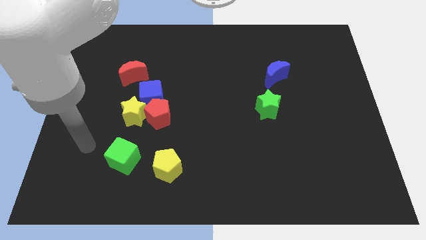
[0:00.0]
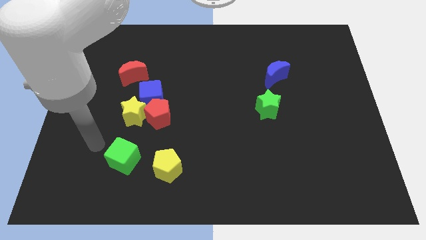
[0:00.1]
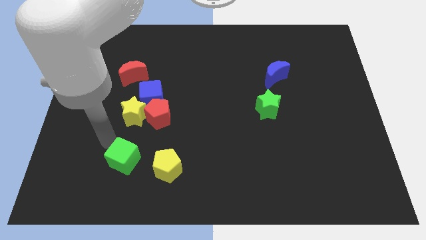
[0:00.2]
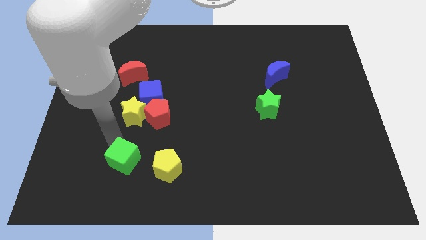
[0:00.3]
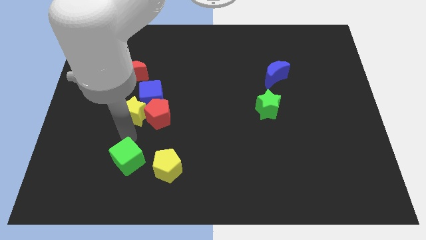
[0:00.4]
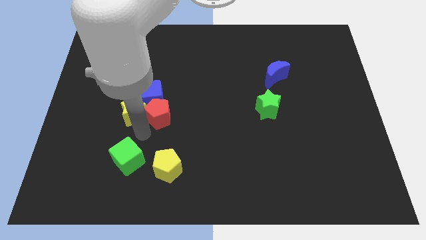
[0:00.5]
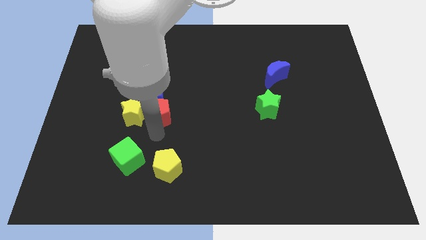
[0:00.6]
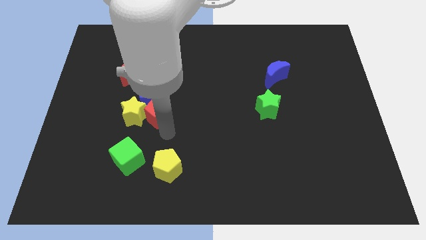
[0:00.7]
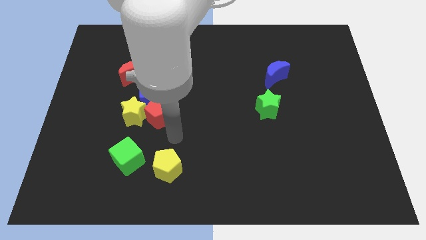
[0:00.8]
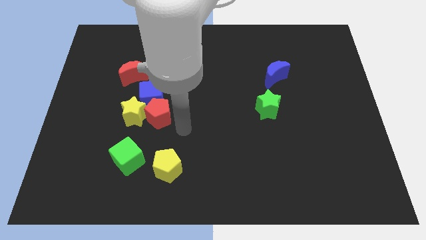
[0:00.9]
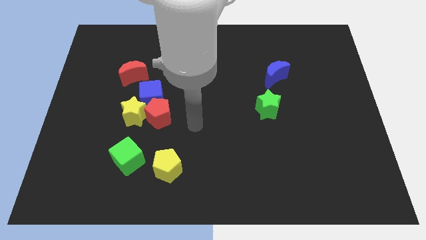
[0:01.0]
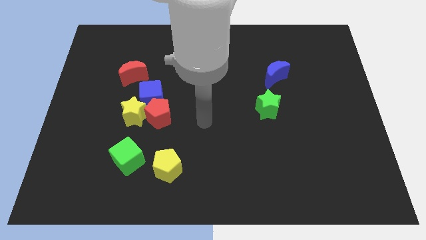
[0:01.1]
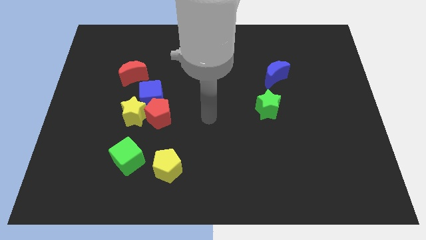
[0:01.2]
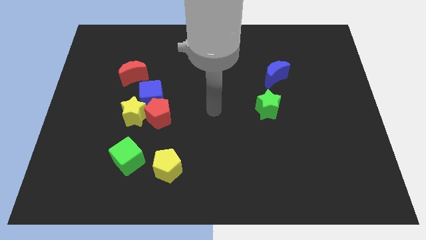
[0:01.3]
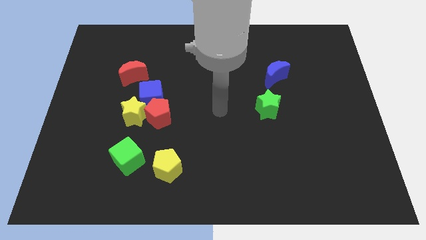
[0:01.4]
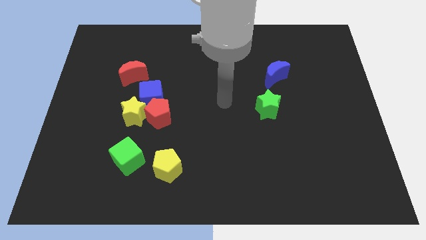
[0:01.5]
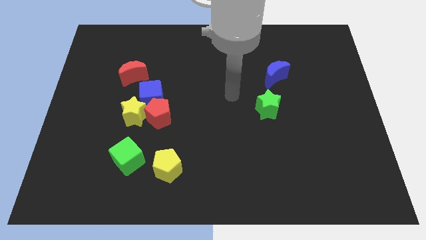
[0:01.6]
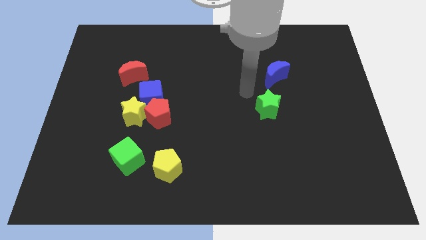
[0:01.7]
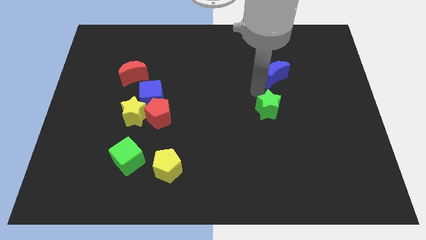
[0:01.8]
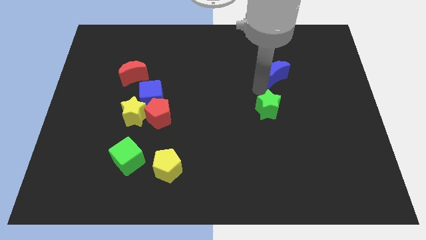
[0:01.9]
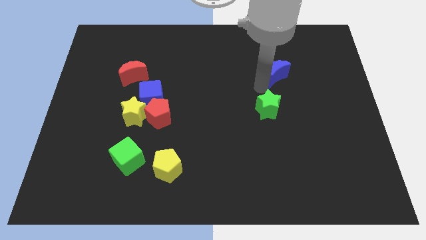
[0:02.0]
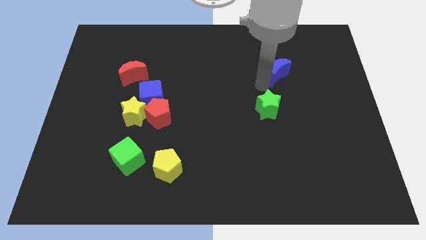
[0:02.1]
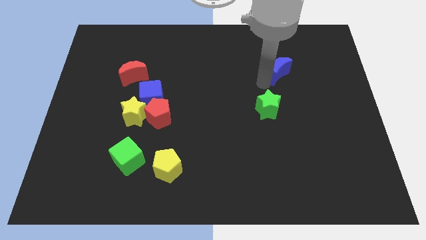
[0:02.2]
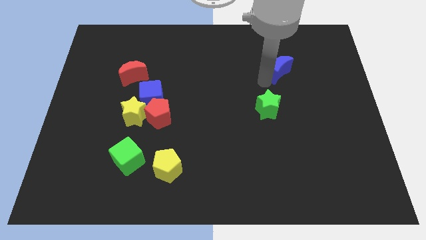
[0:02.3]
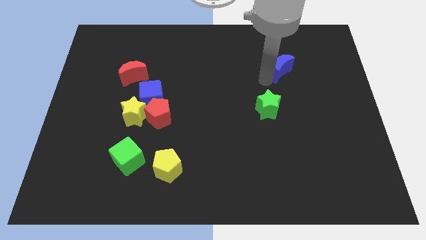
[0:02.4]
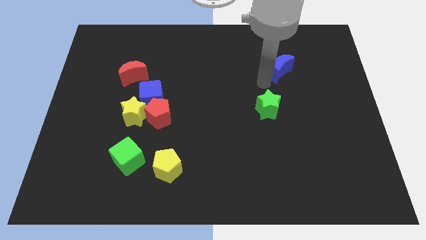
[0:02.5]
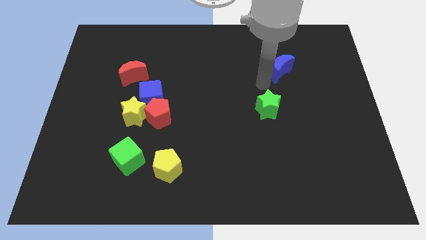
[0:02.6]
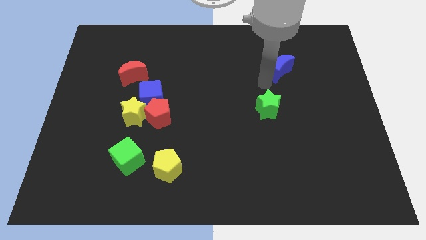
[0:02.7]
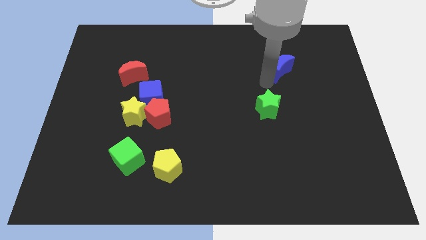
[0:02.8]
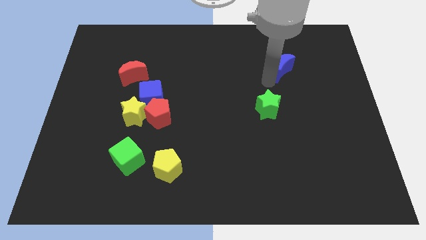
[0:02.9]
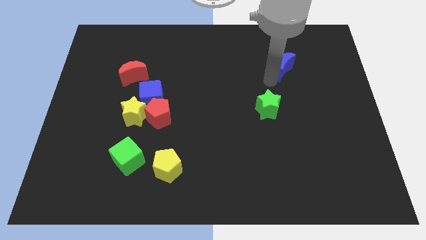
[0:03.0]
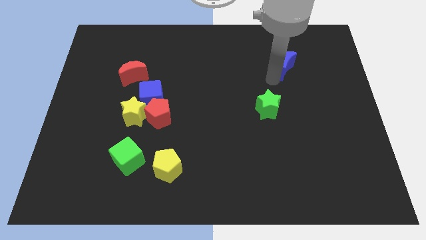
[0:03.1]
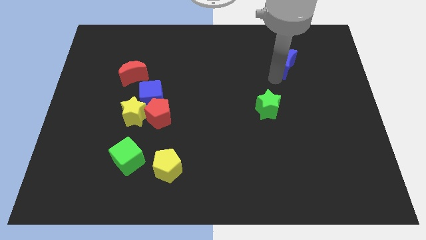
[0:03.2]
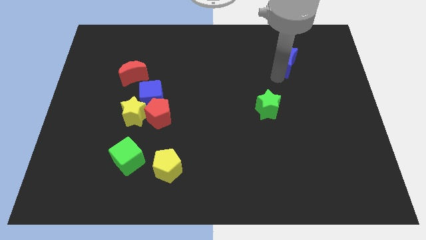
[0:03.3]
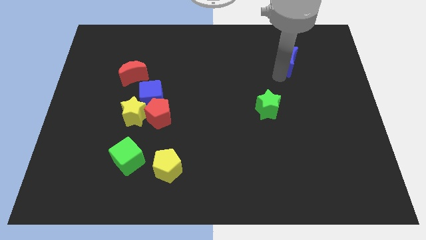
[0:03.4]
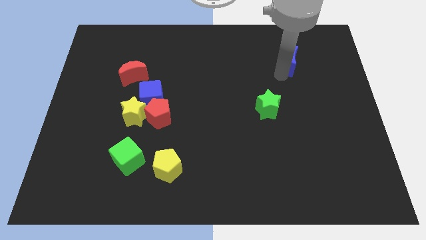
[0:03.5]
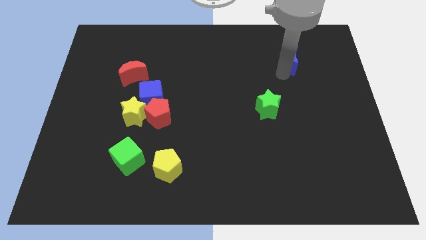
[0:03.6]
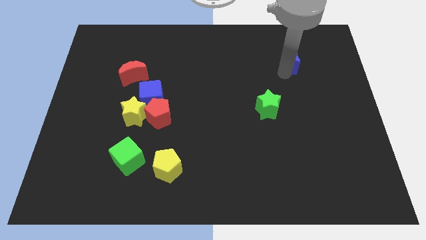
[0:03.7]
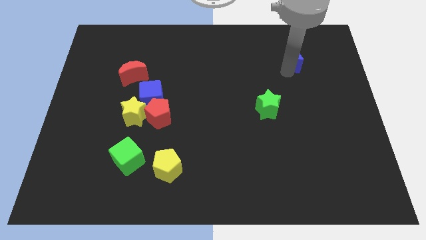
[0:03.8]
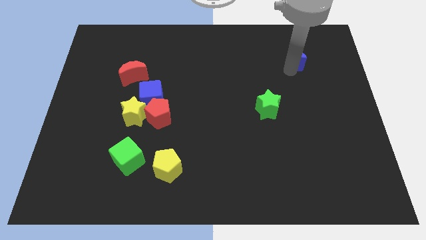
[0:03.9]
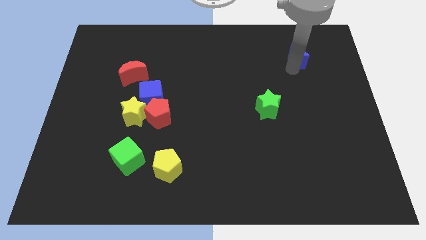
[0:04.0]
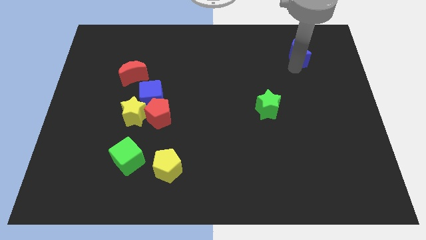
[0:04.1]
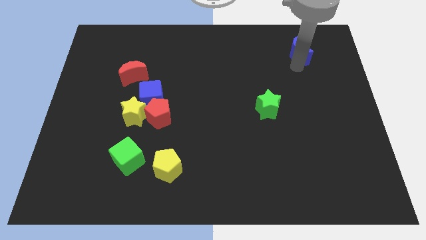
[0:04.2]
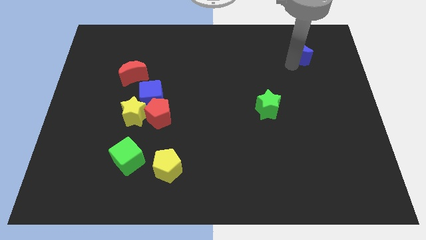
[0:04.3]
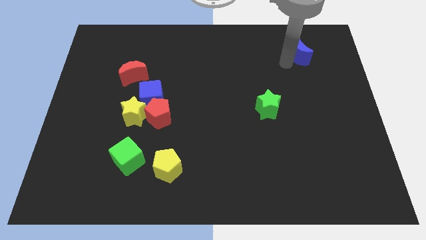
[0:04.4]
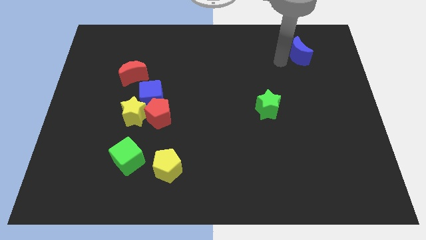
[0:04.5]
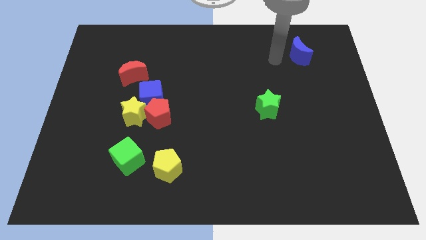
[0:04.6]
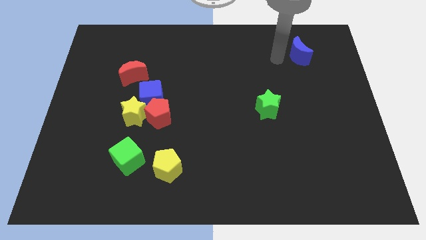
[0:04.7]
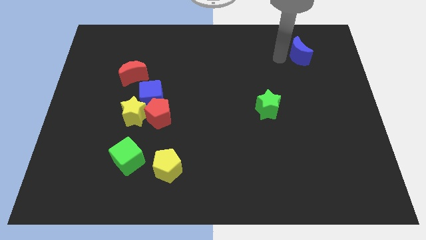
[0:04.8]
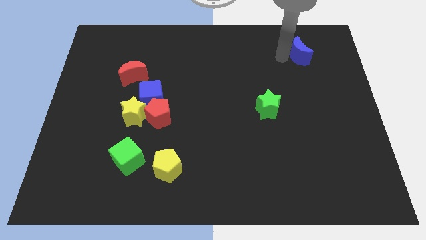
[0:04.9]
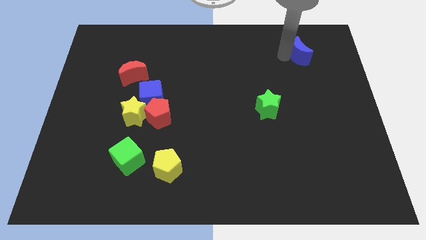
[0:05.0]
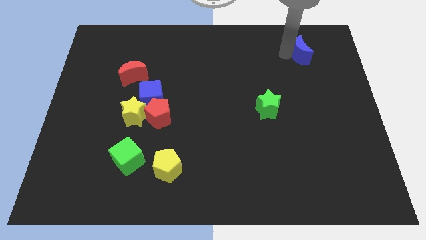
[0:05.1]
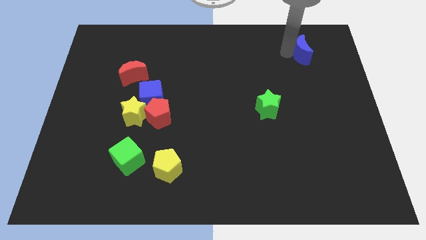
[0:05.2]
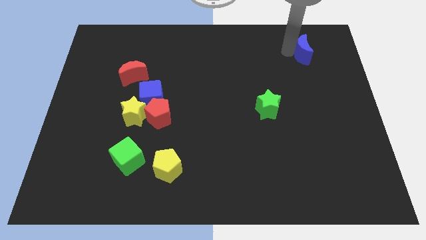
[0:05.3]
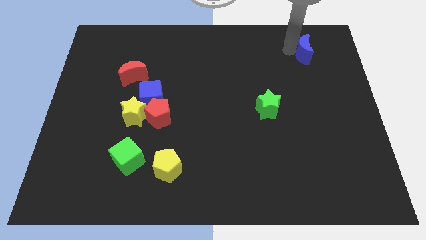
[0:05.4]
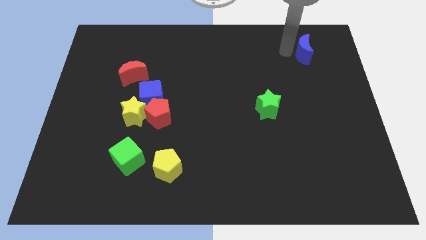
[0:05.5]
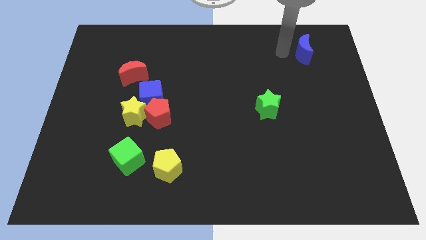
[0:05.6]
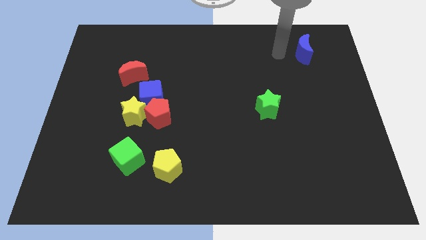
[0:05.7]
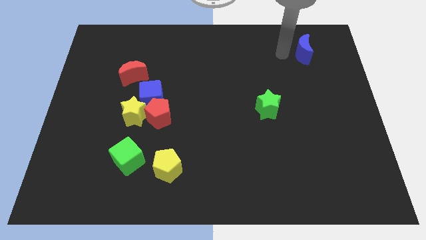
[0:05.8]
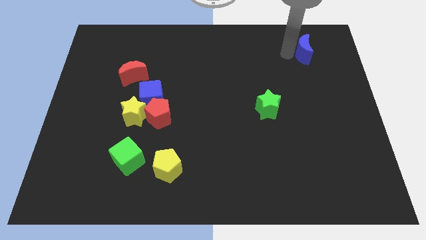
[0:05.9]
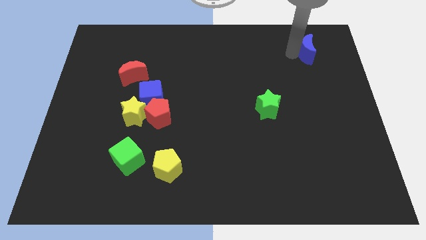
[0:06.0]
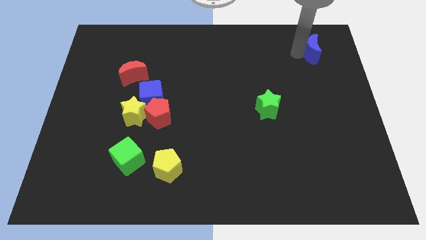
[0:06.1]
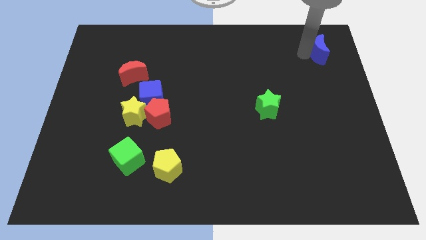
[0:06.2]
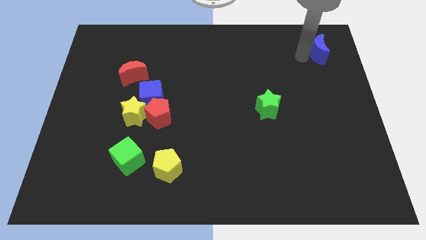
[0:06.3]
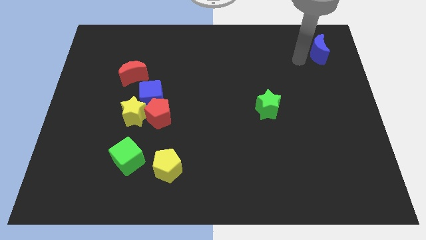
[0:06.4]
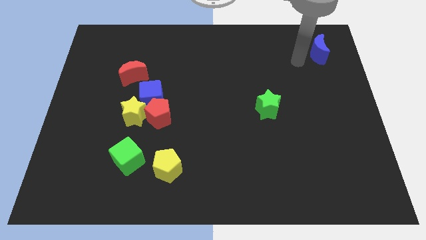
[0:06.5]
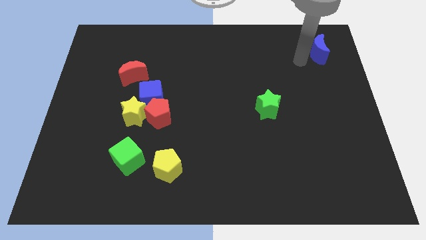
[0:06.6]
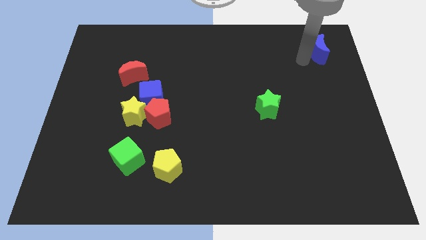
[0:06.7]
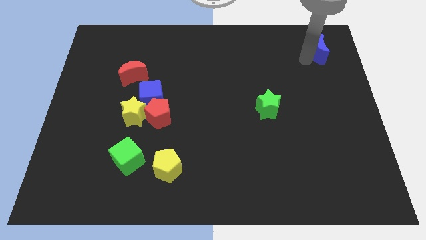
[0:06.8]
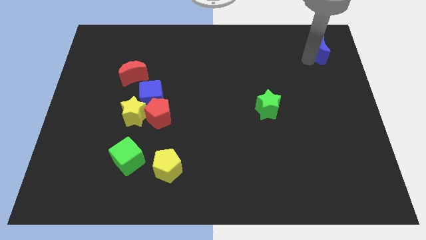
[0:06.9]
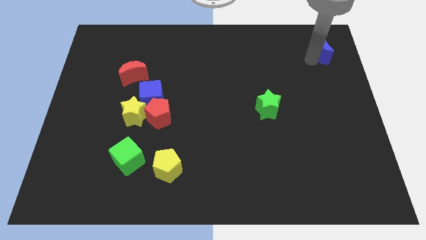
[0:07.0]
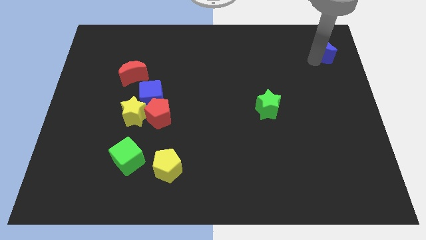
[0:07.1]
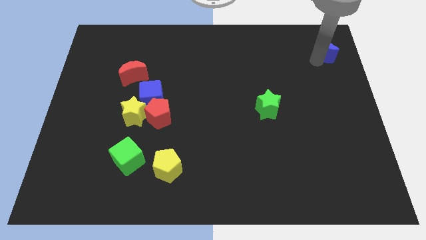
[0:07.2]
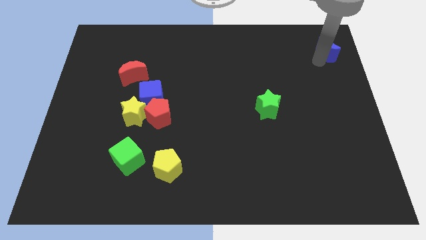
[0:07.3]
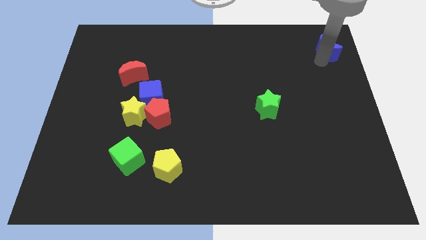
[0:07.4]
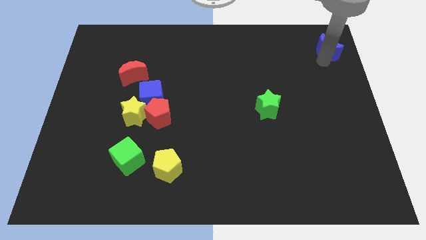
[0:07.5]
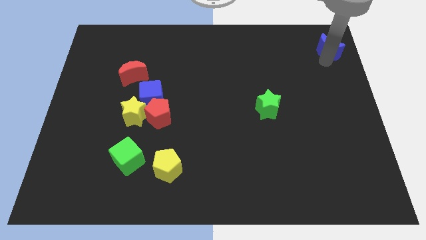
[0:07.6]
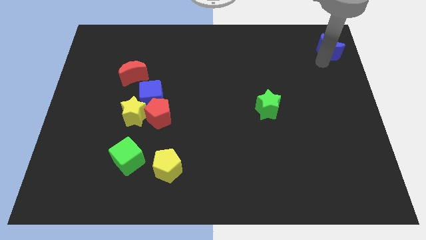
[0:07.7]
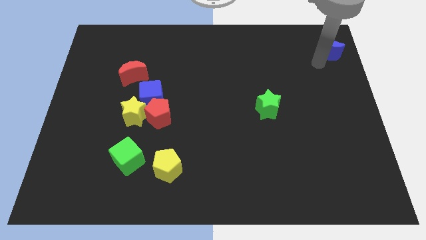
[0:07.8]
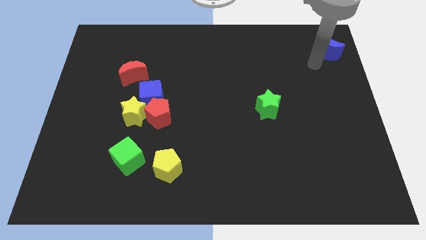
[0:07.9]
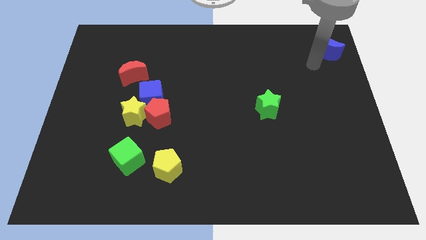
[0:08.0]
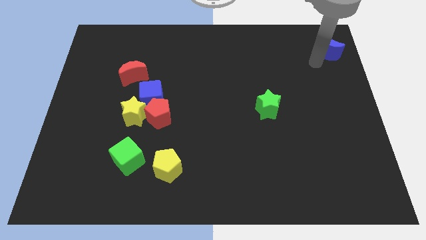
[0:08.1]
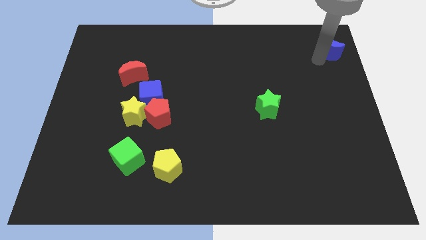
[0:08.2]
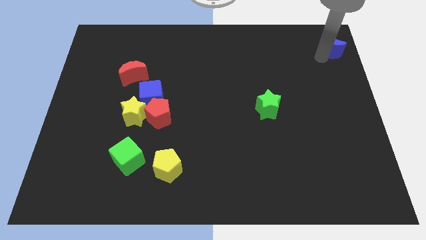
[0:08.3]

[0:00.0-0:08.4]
move the blue moon to the upper right corner
